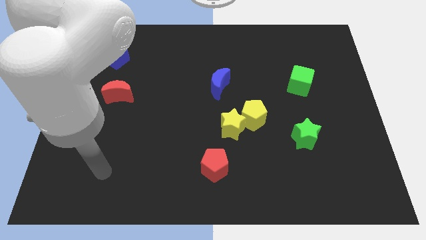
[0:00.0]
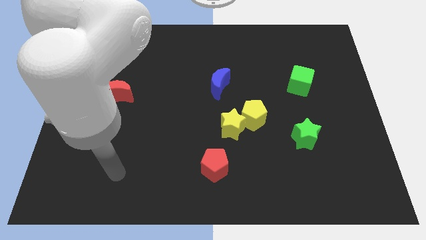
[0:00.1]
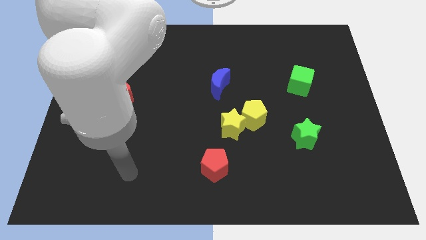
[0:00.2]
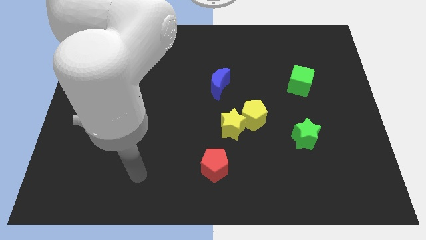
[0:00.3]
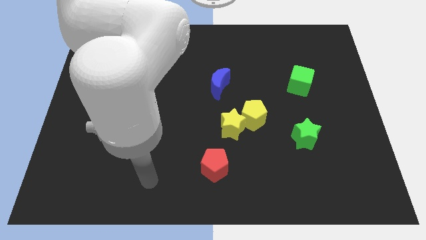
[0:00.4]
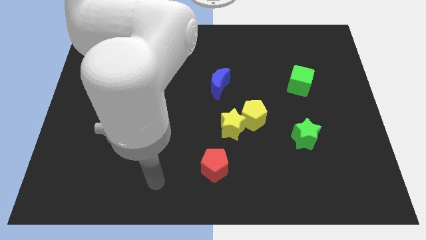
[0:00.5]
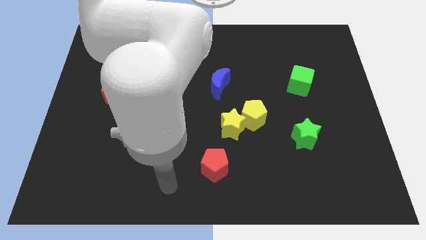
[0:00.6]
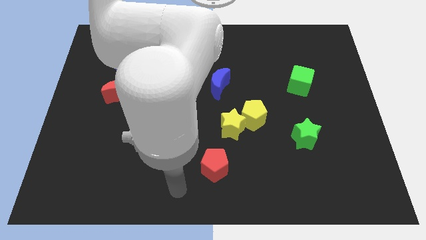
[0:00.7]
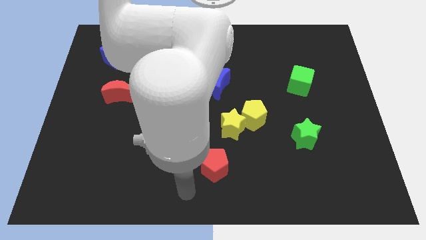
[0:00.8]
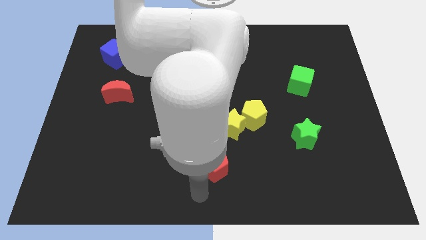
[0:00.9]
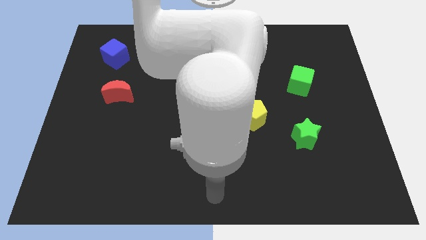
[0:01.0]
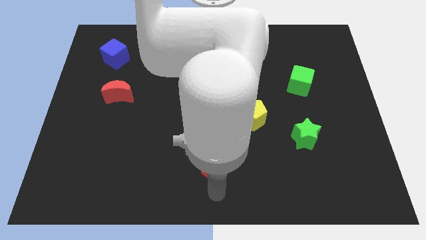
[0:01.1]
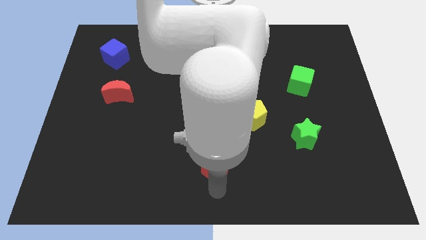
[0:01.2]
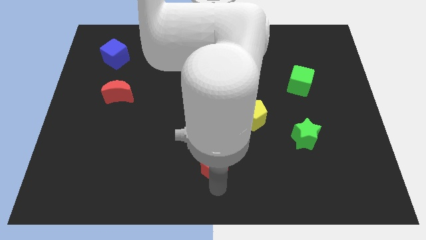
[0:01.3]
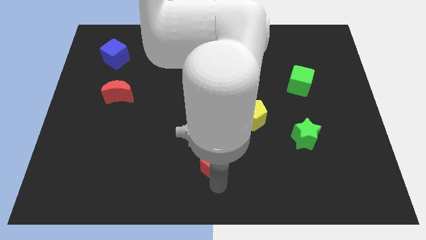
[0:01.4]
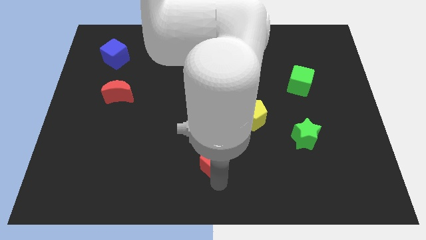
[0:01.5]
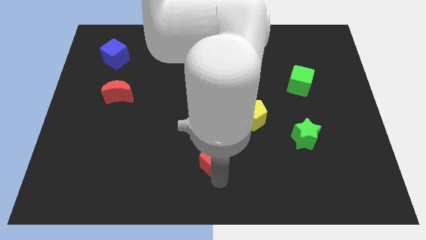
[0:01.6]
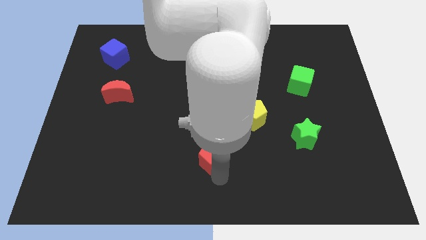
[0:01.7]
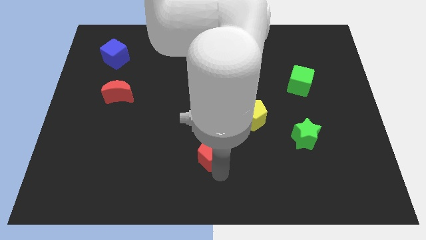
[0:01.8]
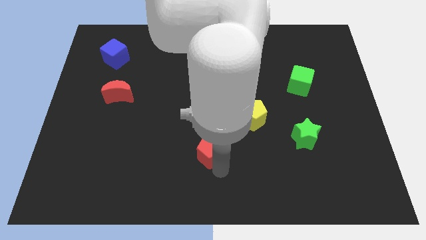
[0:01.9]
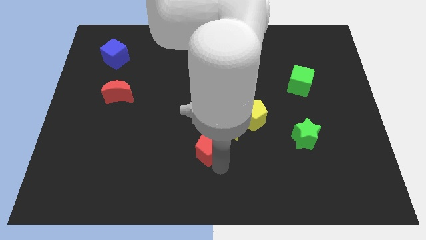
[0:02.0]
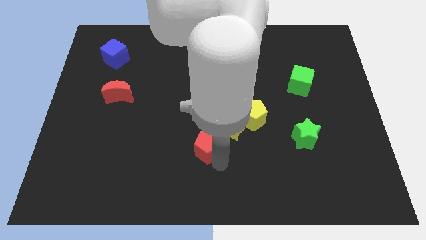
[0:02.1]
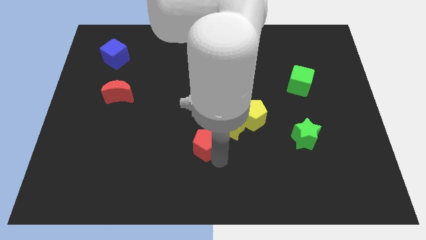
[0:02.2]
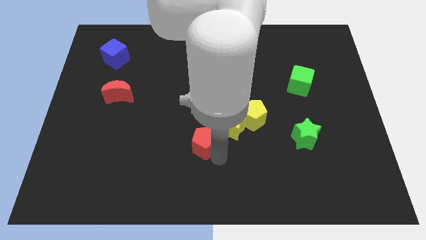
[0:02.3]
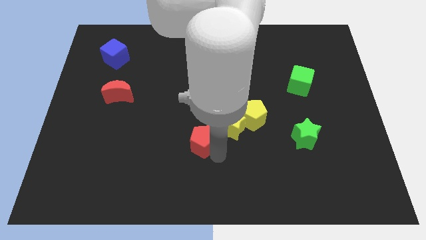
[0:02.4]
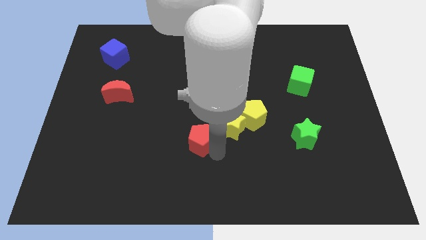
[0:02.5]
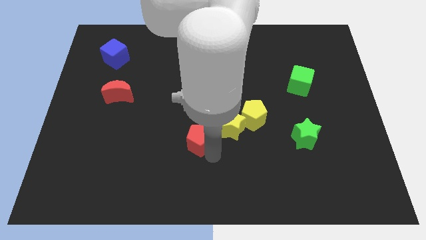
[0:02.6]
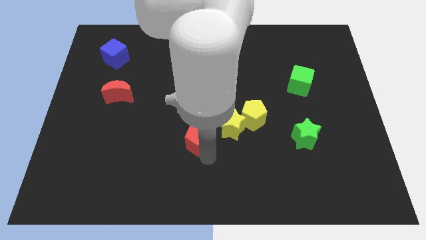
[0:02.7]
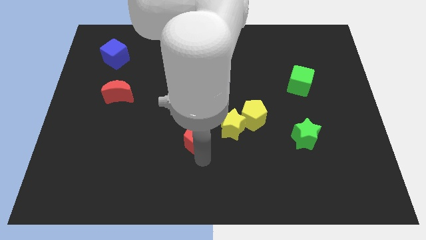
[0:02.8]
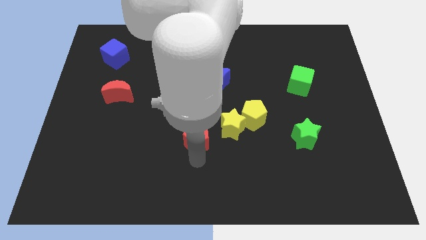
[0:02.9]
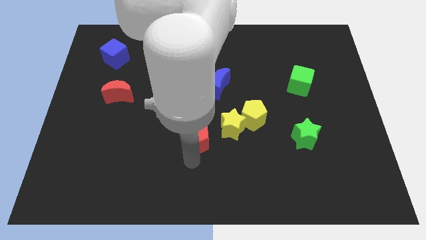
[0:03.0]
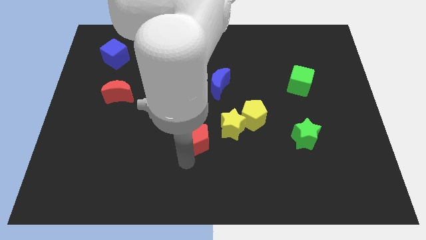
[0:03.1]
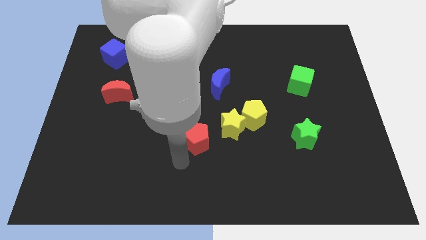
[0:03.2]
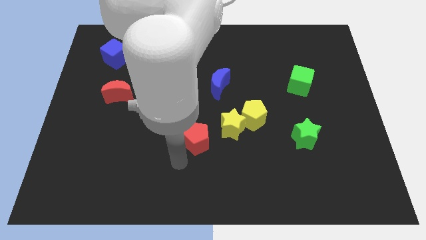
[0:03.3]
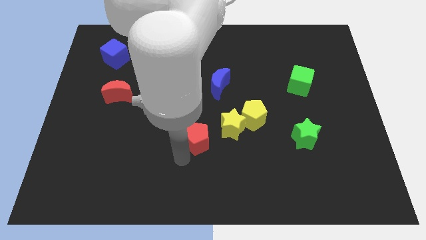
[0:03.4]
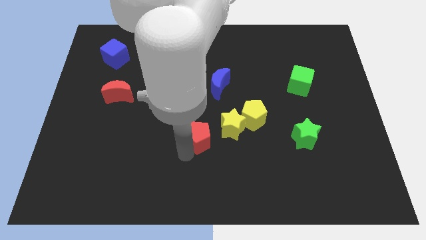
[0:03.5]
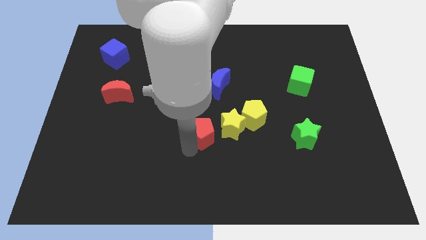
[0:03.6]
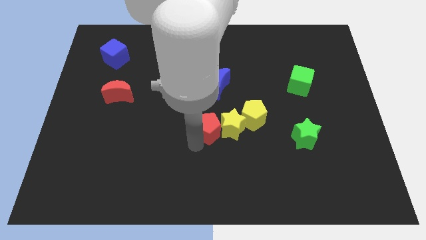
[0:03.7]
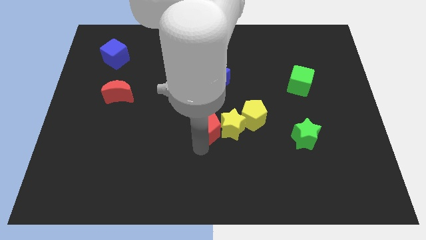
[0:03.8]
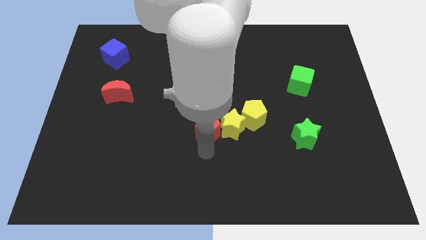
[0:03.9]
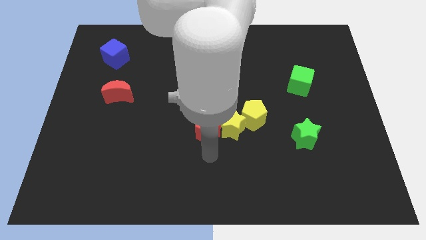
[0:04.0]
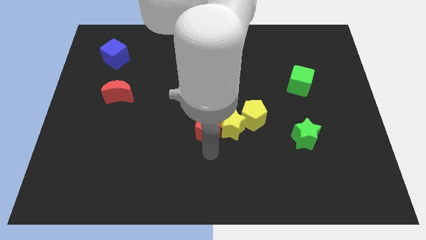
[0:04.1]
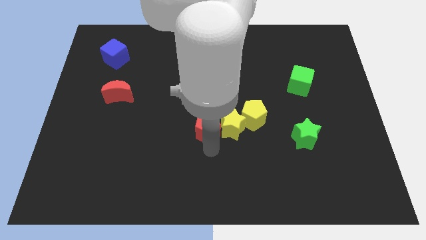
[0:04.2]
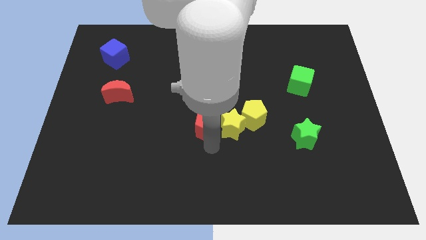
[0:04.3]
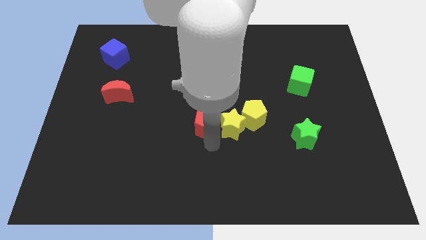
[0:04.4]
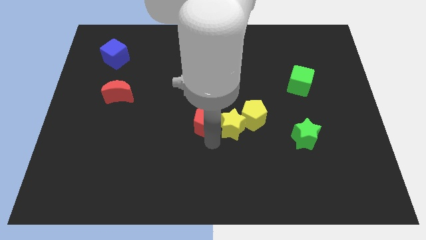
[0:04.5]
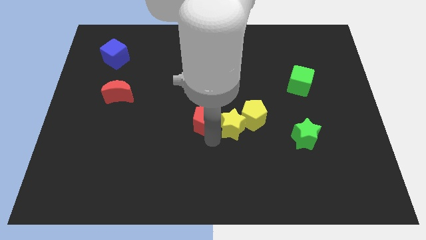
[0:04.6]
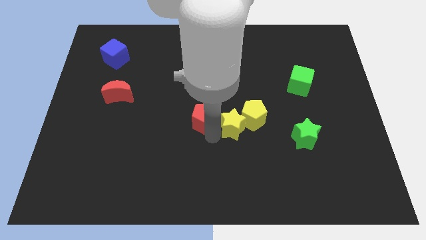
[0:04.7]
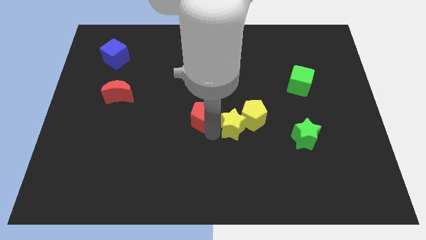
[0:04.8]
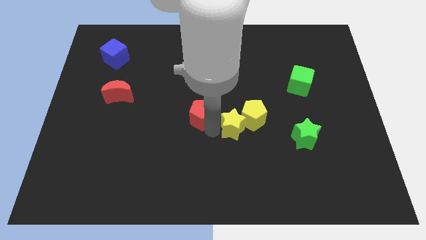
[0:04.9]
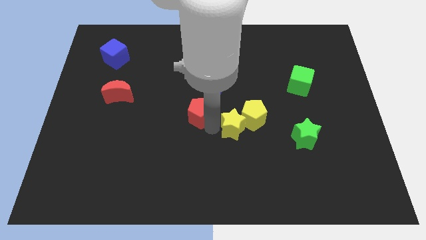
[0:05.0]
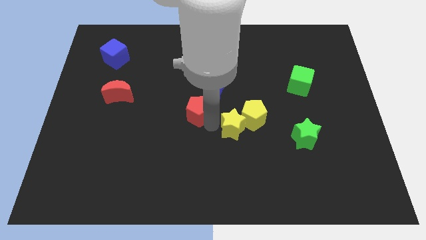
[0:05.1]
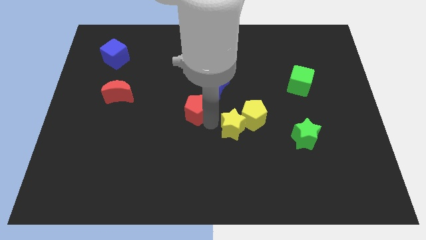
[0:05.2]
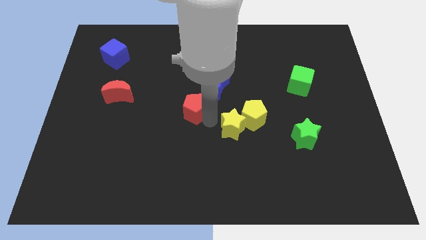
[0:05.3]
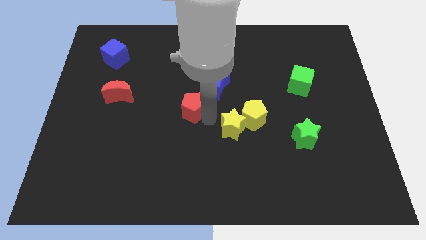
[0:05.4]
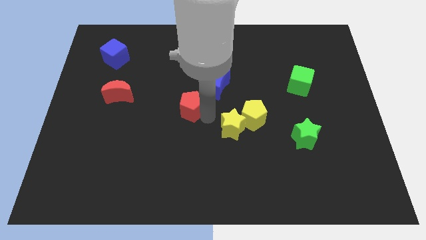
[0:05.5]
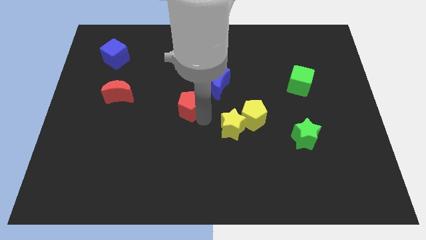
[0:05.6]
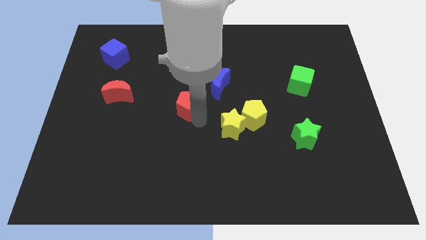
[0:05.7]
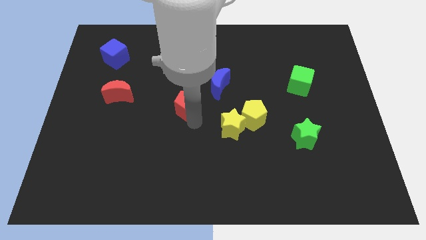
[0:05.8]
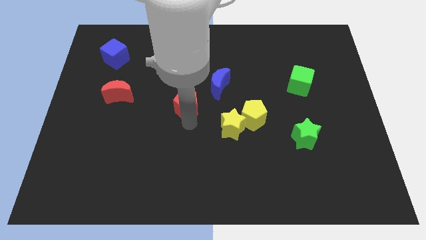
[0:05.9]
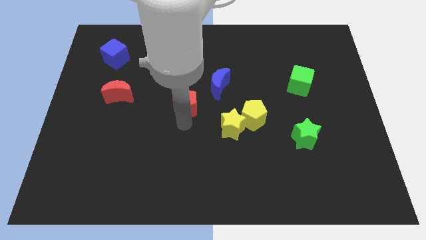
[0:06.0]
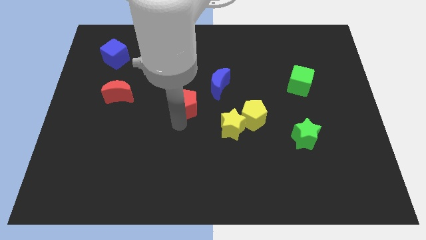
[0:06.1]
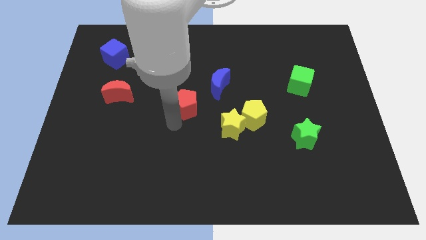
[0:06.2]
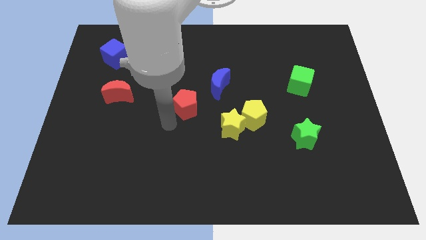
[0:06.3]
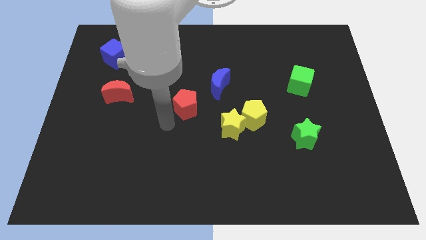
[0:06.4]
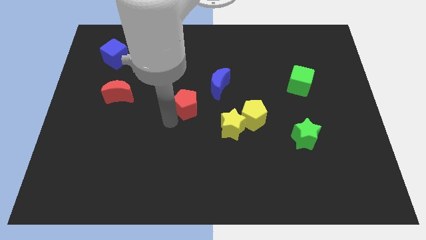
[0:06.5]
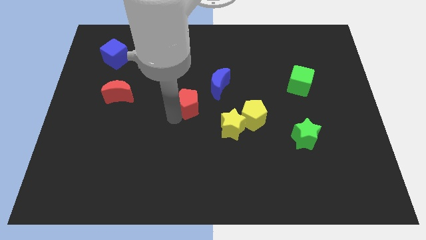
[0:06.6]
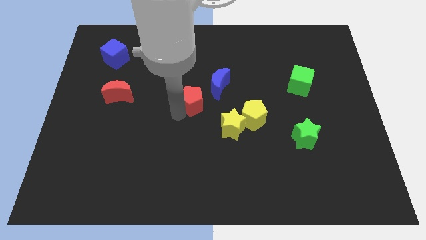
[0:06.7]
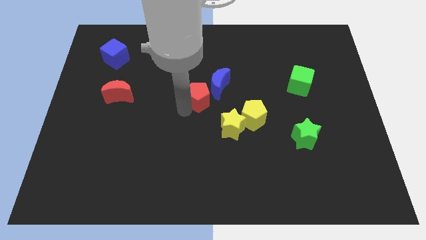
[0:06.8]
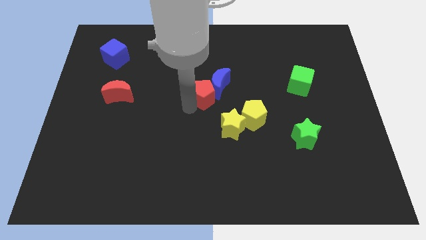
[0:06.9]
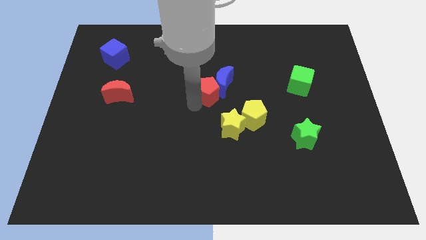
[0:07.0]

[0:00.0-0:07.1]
slide the red pentagon up

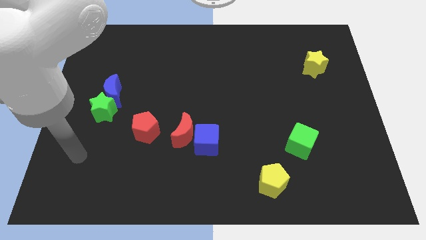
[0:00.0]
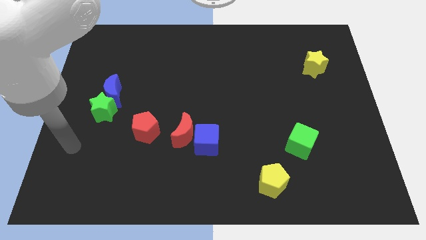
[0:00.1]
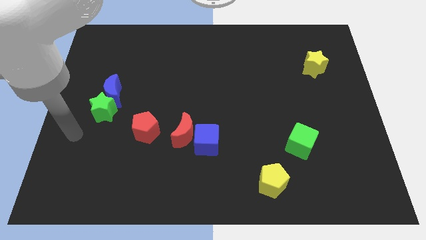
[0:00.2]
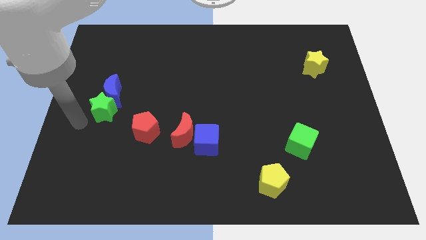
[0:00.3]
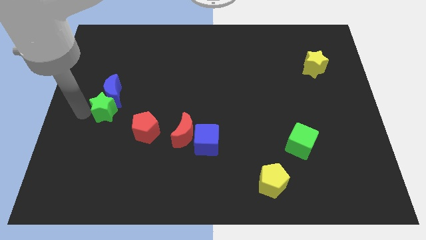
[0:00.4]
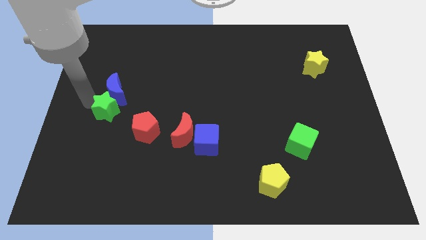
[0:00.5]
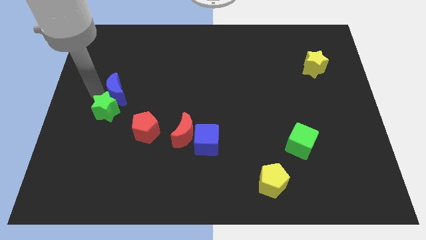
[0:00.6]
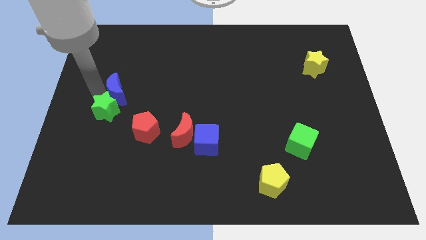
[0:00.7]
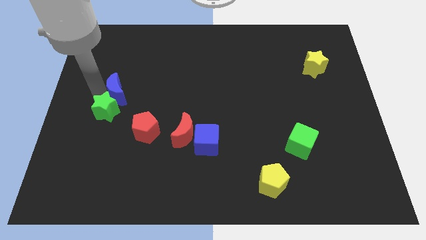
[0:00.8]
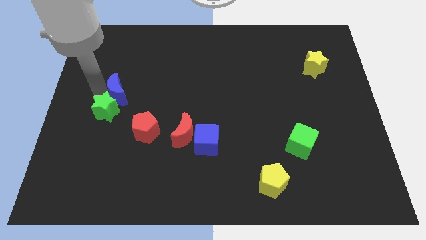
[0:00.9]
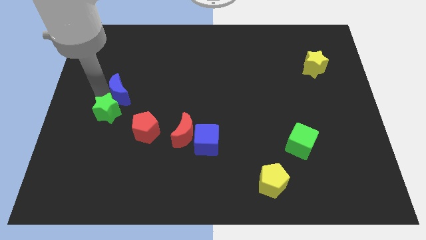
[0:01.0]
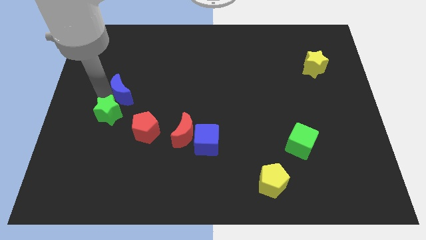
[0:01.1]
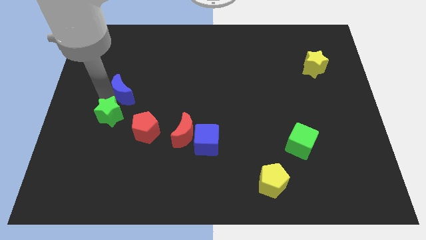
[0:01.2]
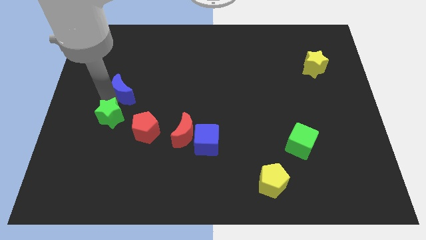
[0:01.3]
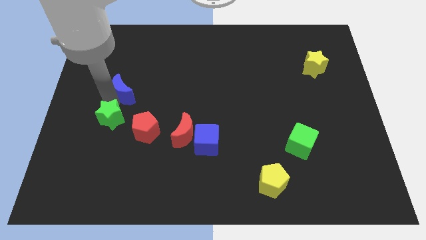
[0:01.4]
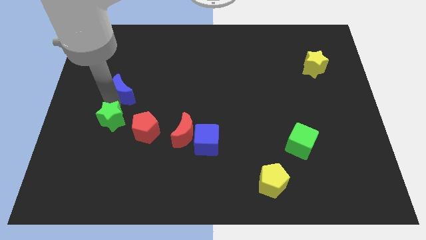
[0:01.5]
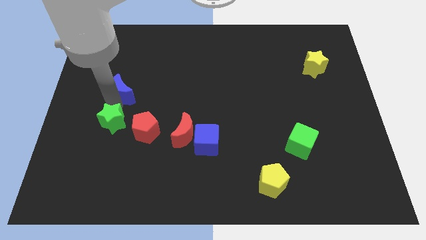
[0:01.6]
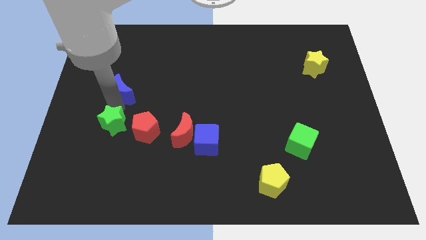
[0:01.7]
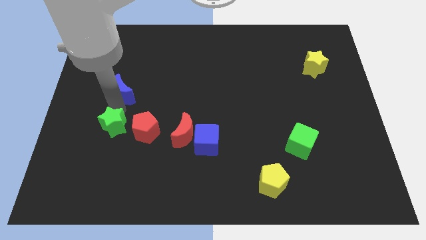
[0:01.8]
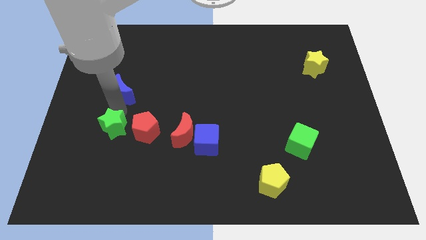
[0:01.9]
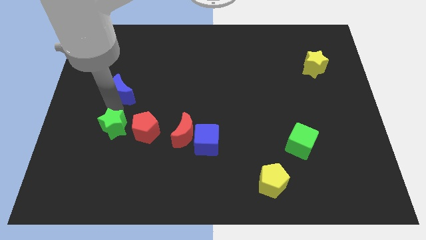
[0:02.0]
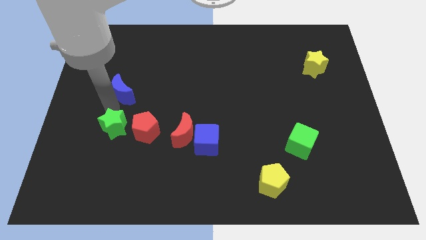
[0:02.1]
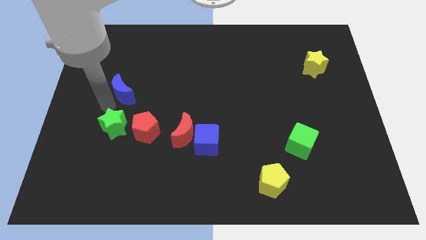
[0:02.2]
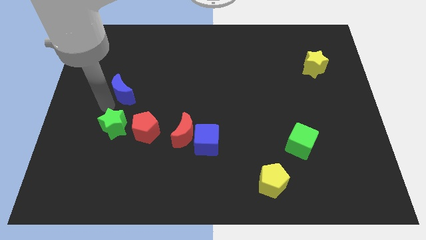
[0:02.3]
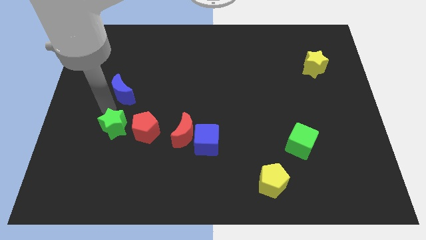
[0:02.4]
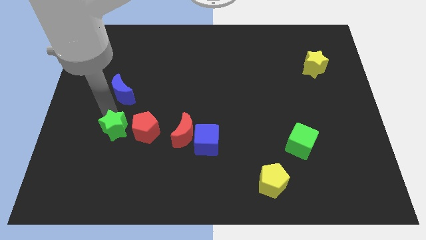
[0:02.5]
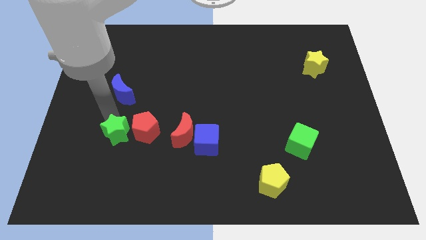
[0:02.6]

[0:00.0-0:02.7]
move the green star a little down and to the right
